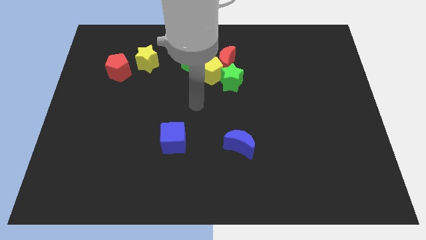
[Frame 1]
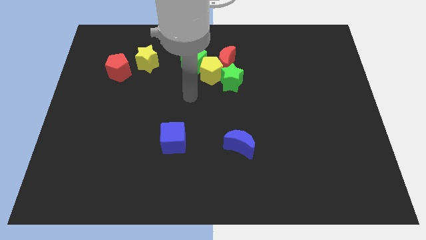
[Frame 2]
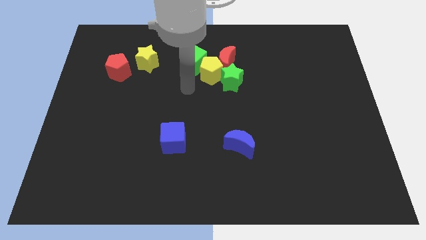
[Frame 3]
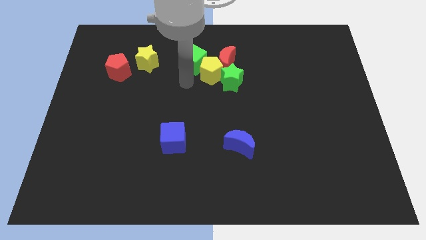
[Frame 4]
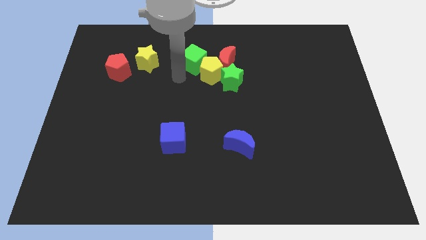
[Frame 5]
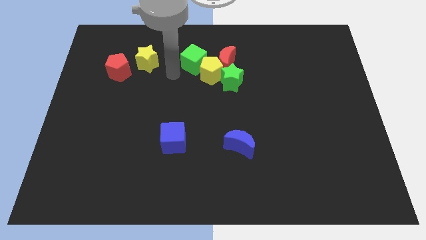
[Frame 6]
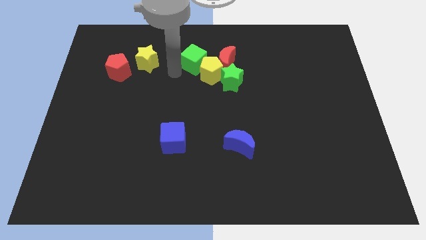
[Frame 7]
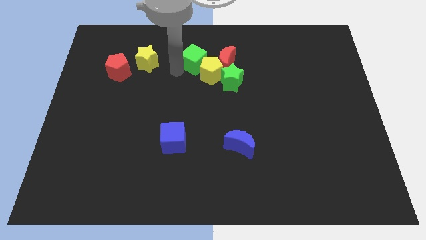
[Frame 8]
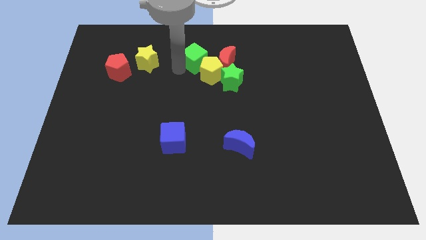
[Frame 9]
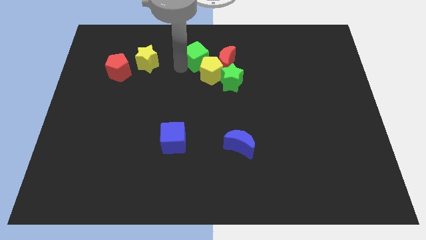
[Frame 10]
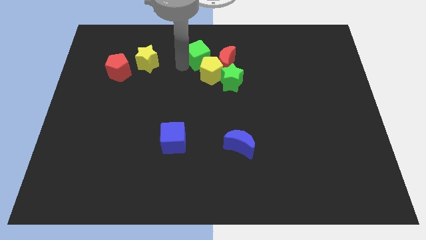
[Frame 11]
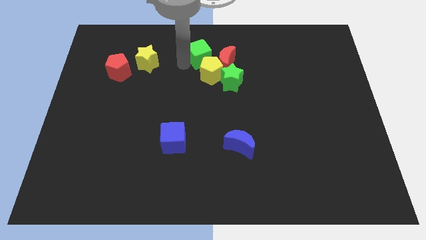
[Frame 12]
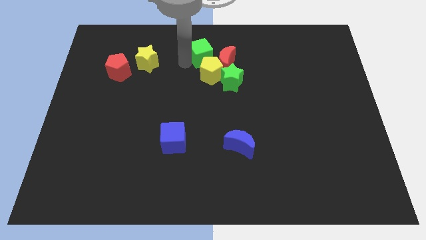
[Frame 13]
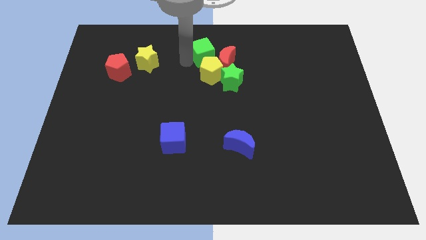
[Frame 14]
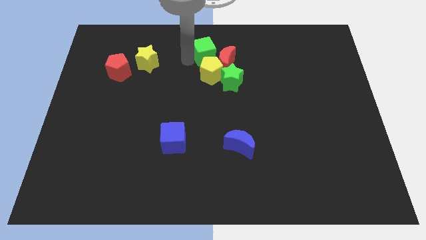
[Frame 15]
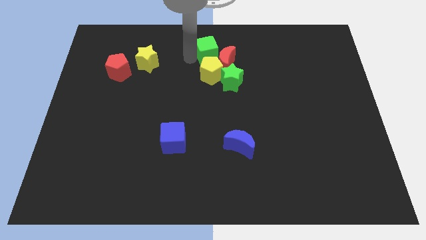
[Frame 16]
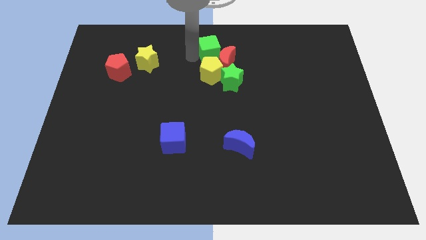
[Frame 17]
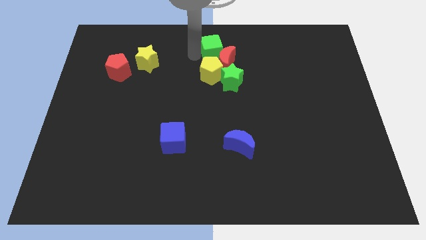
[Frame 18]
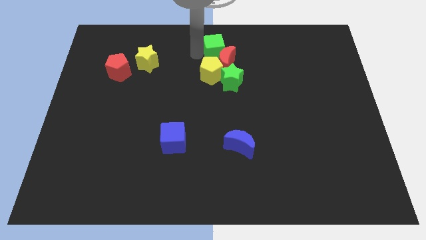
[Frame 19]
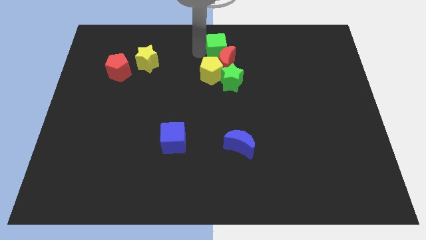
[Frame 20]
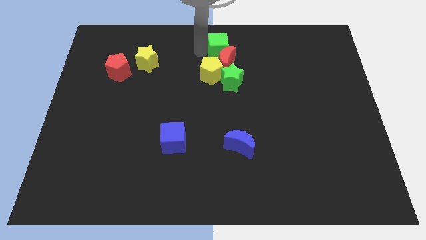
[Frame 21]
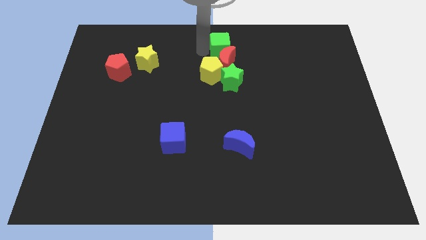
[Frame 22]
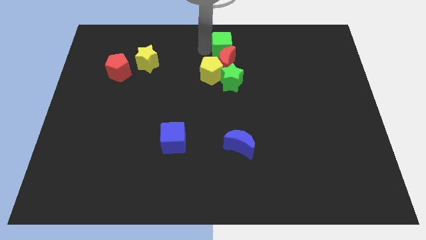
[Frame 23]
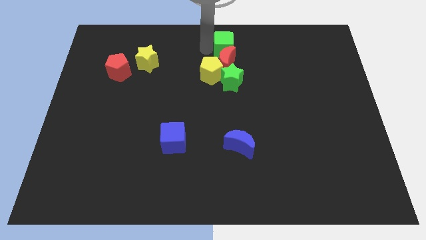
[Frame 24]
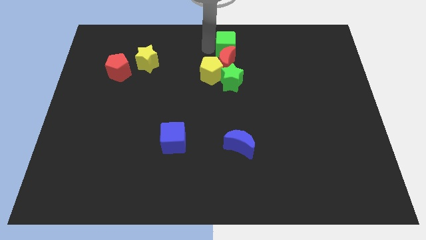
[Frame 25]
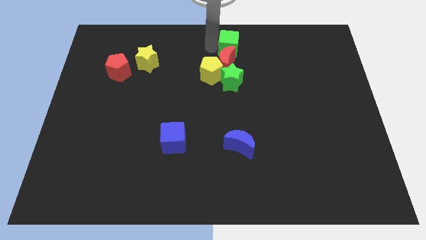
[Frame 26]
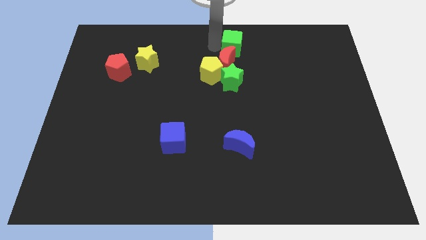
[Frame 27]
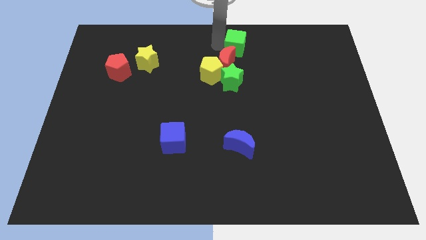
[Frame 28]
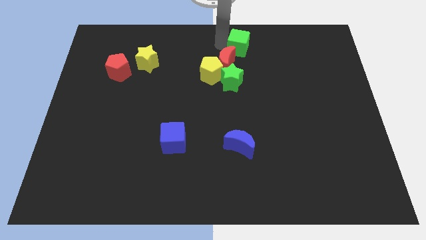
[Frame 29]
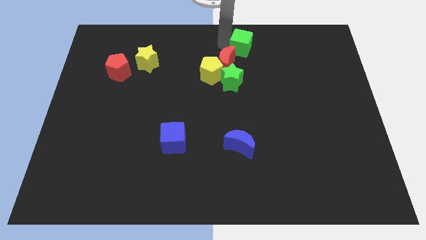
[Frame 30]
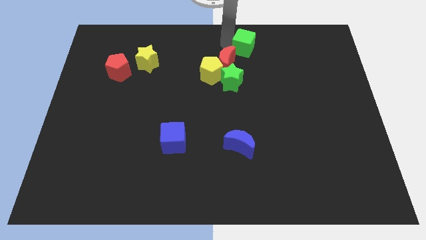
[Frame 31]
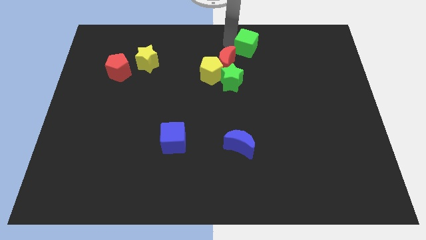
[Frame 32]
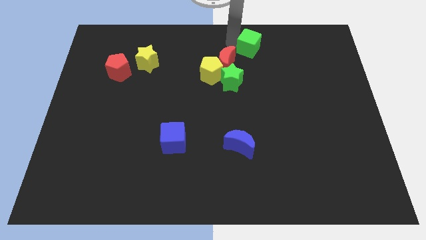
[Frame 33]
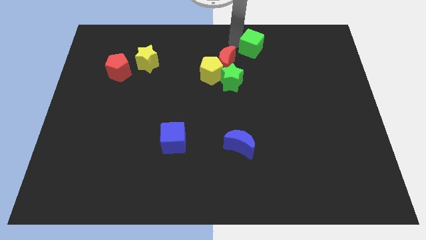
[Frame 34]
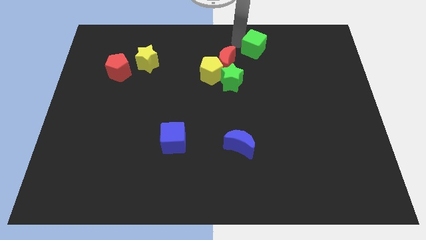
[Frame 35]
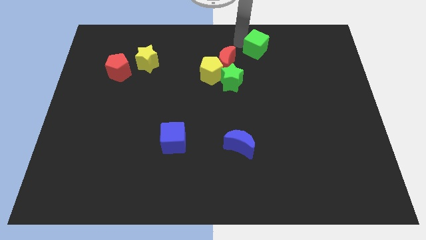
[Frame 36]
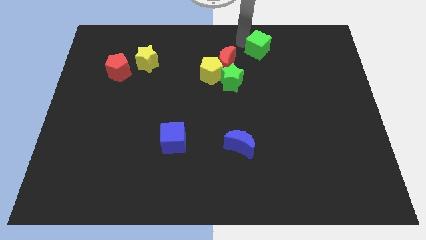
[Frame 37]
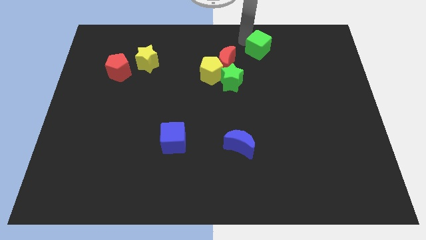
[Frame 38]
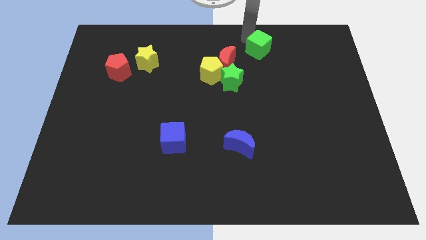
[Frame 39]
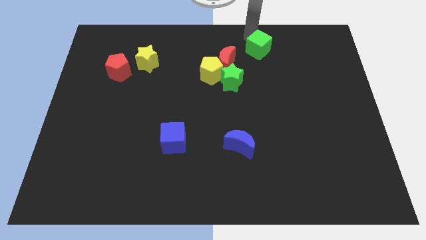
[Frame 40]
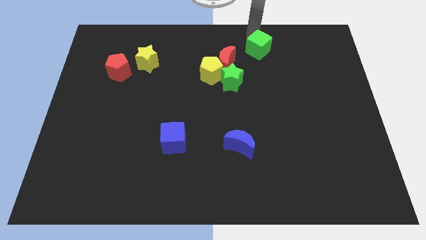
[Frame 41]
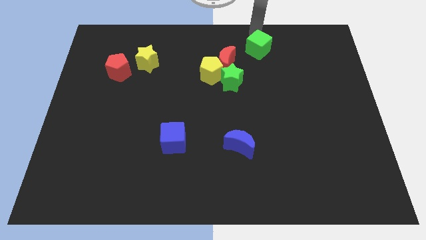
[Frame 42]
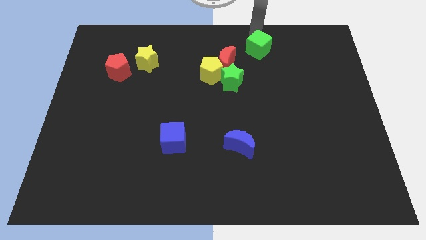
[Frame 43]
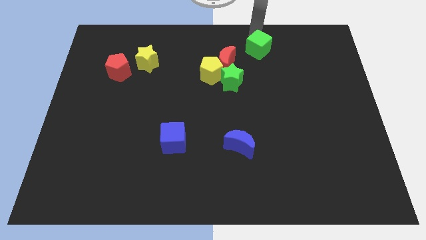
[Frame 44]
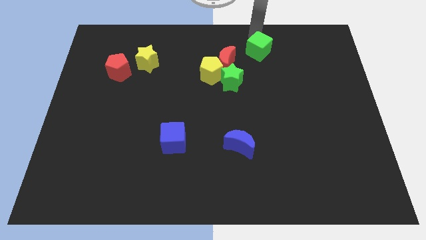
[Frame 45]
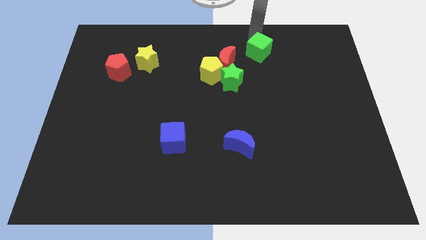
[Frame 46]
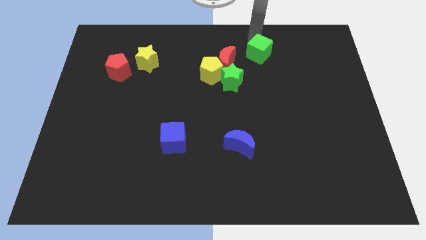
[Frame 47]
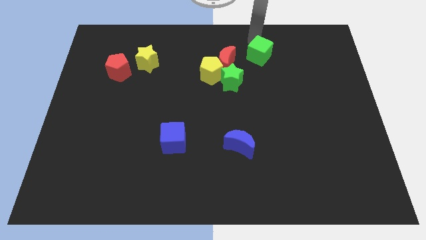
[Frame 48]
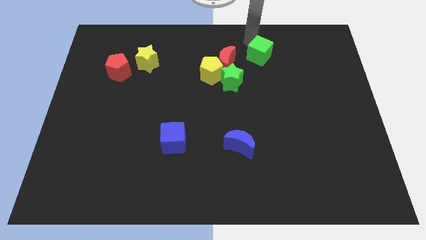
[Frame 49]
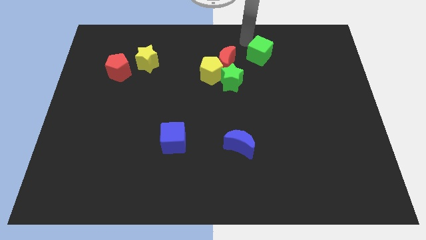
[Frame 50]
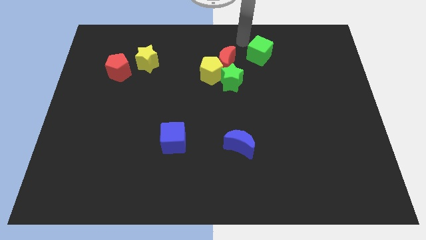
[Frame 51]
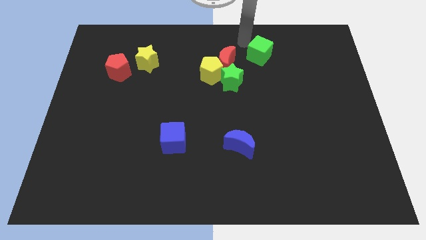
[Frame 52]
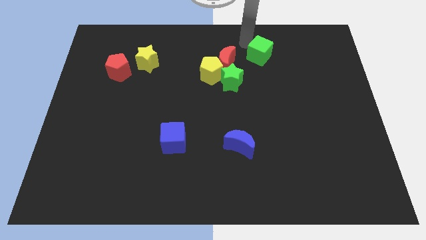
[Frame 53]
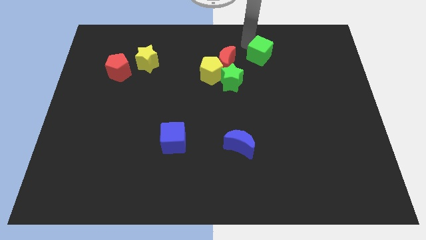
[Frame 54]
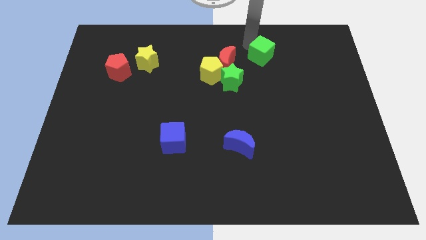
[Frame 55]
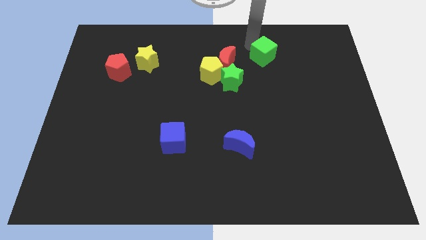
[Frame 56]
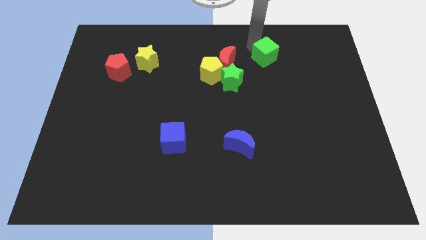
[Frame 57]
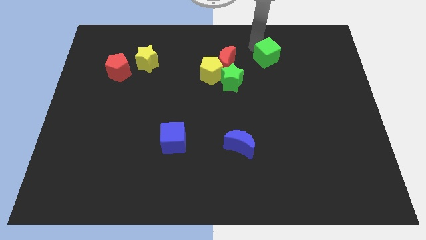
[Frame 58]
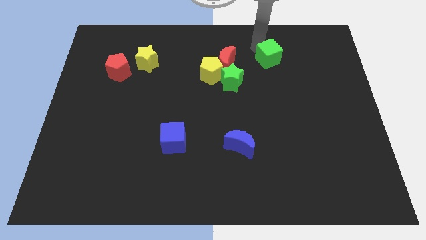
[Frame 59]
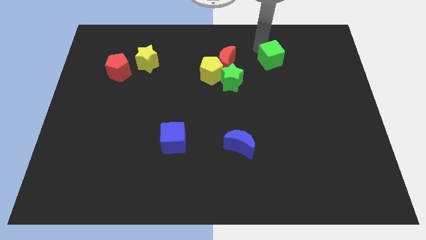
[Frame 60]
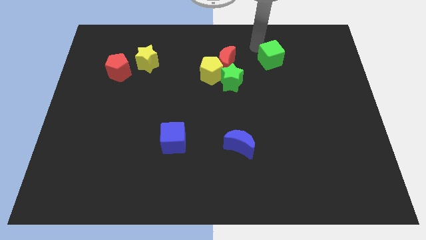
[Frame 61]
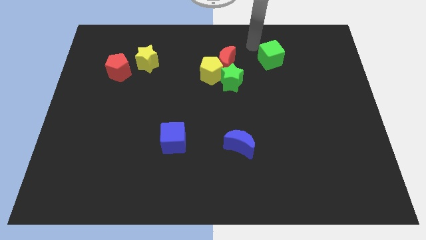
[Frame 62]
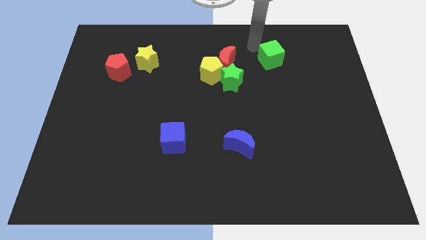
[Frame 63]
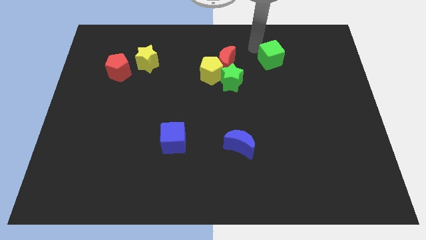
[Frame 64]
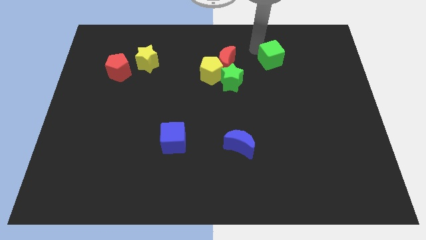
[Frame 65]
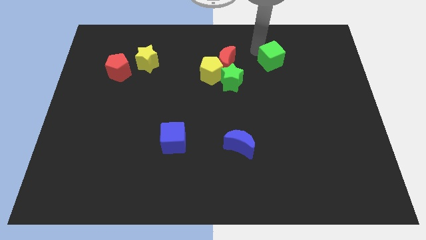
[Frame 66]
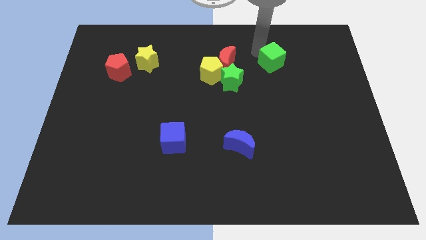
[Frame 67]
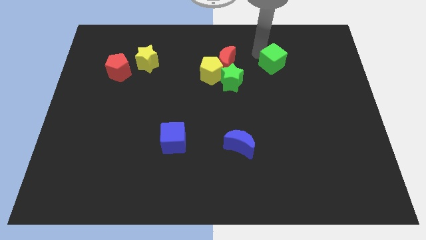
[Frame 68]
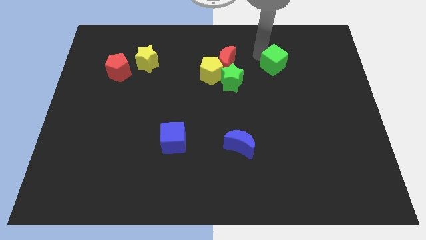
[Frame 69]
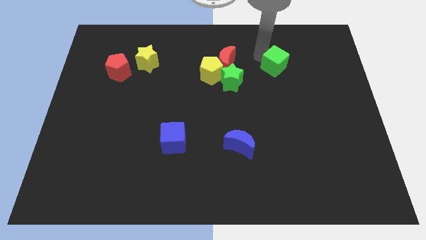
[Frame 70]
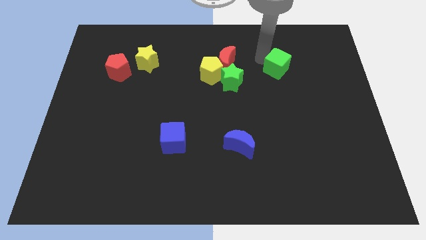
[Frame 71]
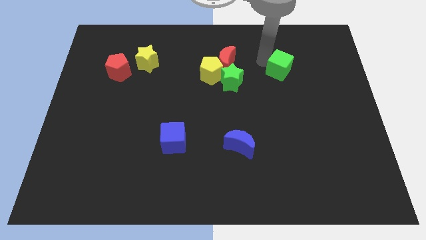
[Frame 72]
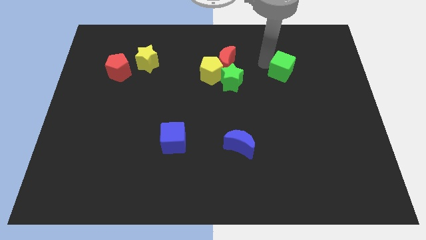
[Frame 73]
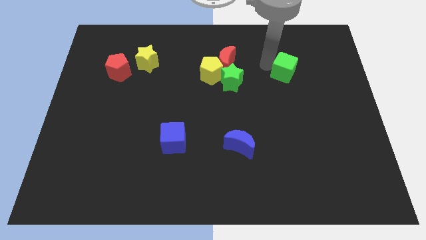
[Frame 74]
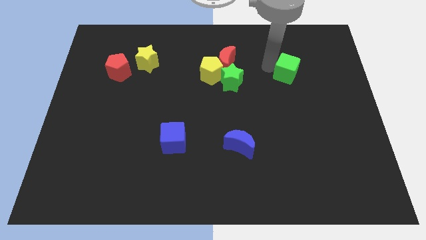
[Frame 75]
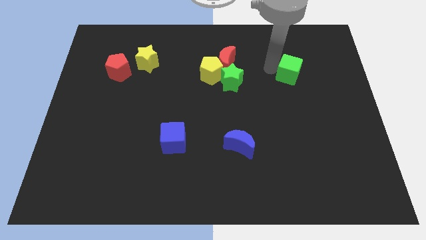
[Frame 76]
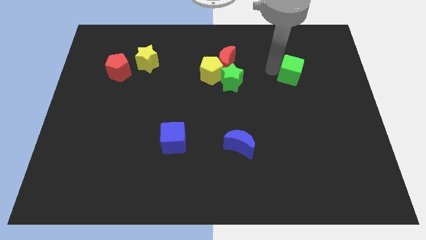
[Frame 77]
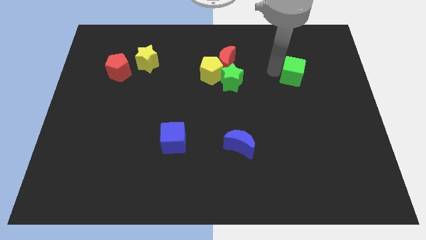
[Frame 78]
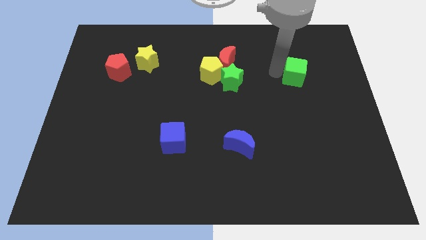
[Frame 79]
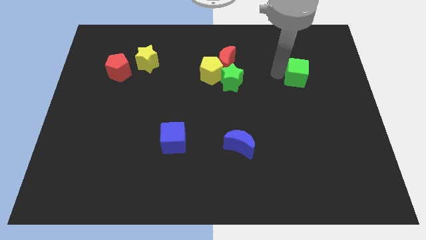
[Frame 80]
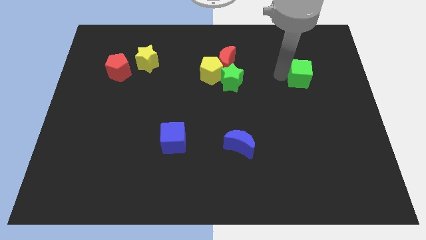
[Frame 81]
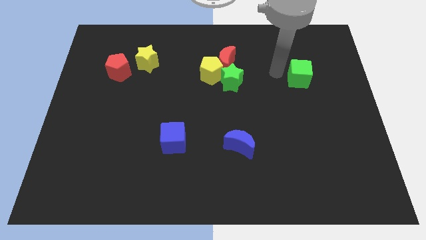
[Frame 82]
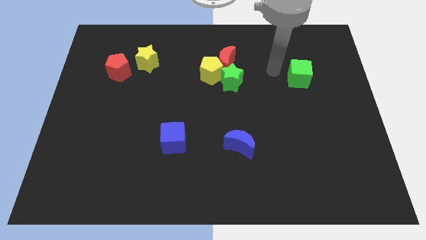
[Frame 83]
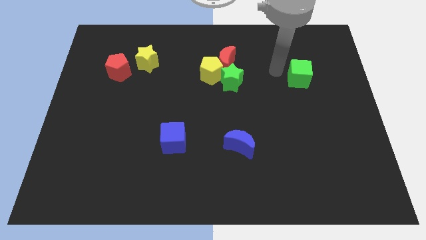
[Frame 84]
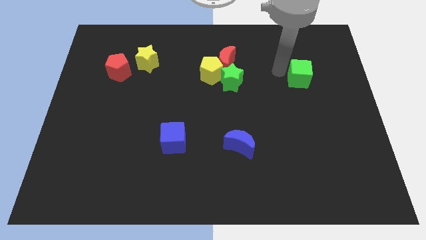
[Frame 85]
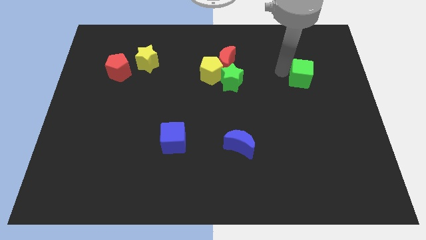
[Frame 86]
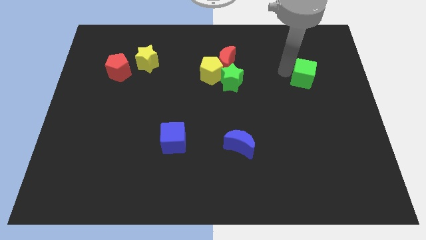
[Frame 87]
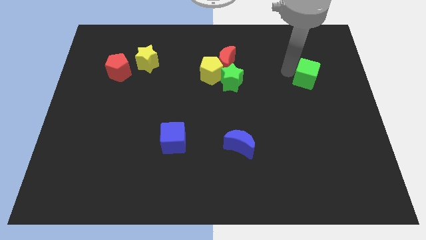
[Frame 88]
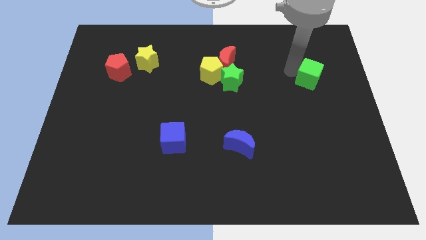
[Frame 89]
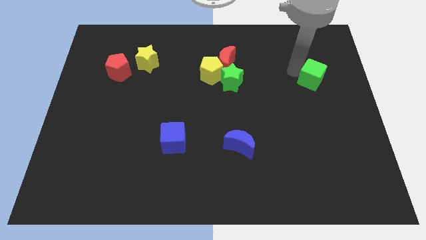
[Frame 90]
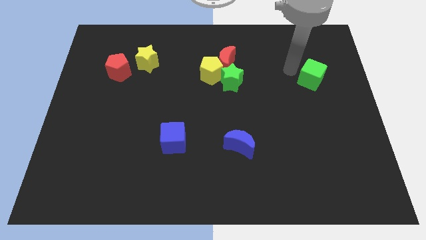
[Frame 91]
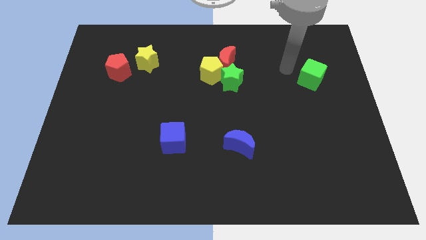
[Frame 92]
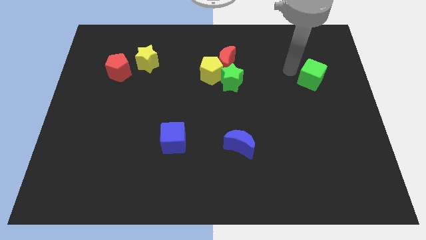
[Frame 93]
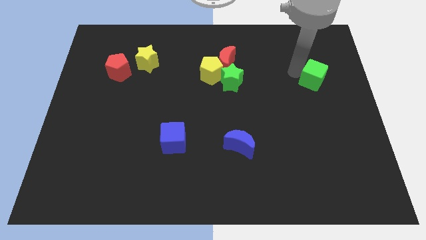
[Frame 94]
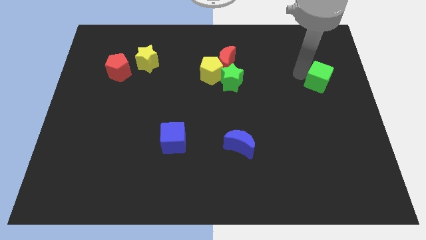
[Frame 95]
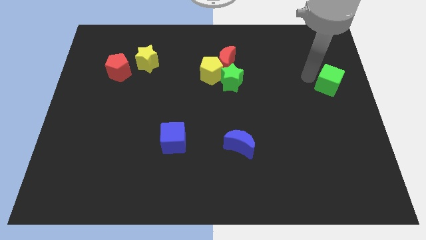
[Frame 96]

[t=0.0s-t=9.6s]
push the green cube to the right side of the board
